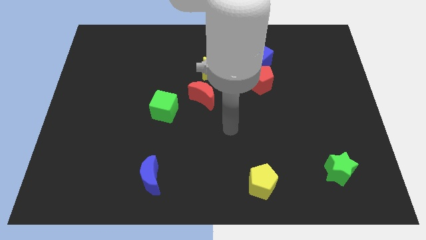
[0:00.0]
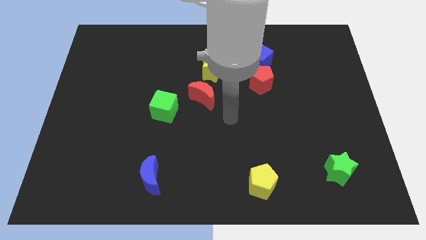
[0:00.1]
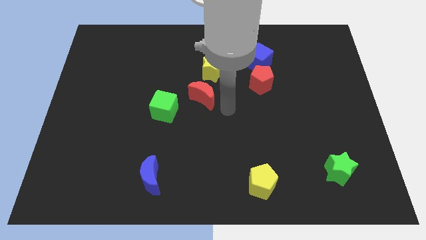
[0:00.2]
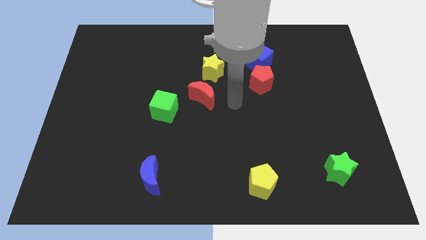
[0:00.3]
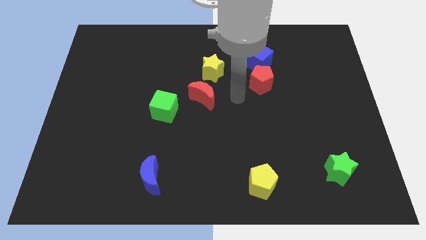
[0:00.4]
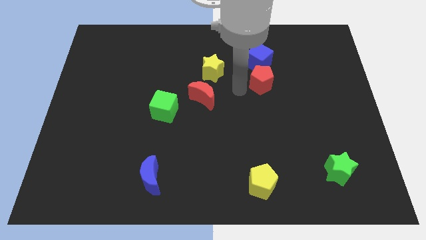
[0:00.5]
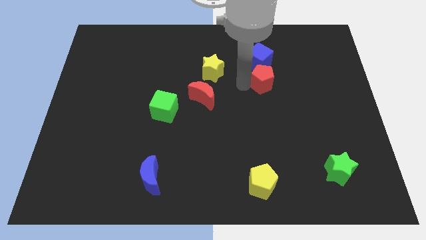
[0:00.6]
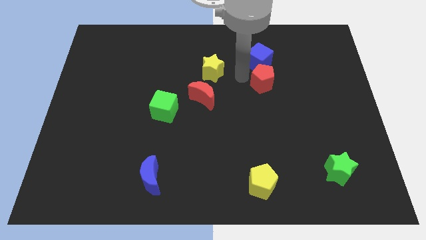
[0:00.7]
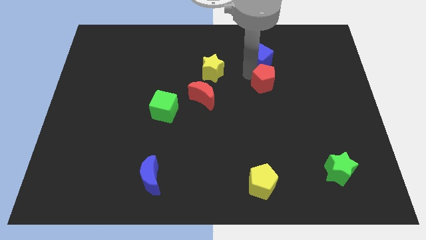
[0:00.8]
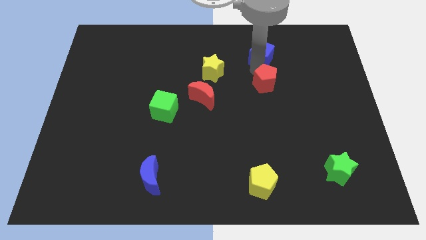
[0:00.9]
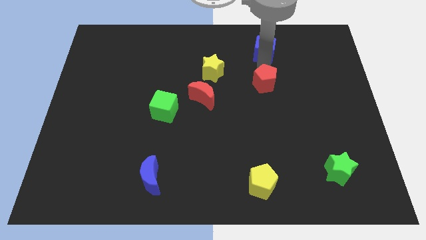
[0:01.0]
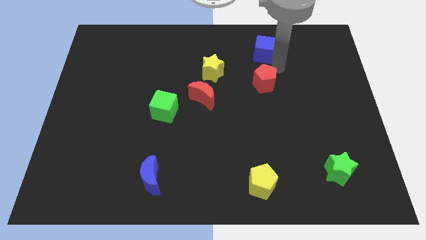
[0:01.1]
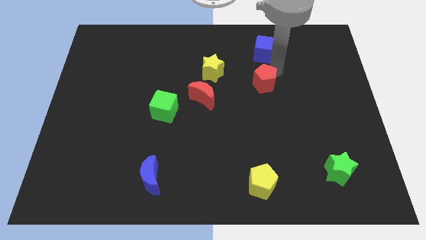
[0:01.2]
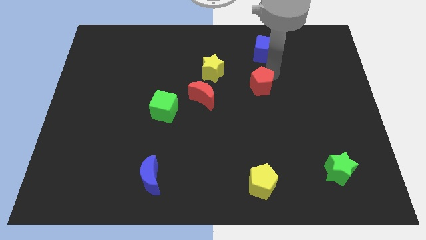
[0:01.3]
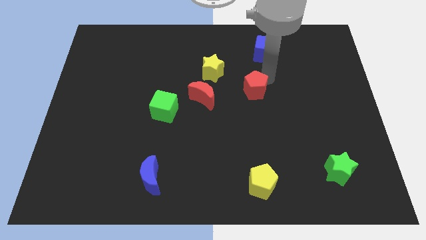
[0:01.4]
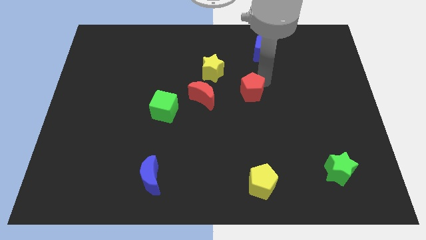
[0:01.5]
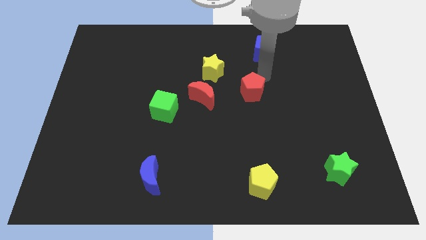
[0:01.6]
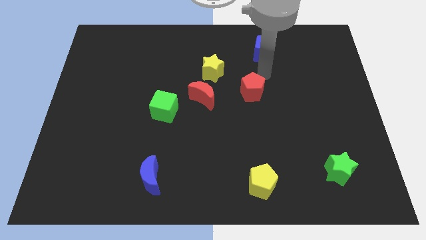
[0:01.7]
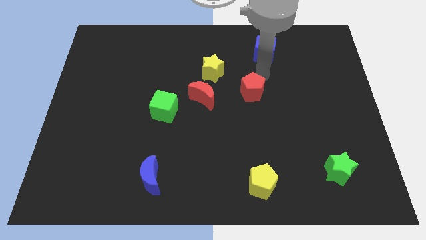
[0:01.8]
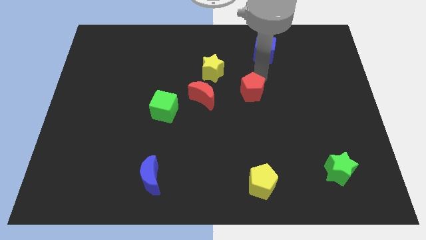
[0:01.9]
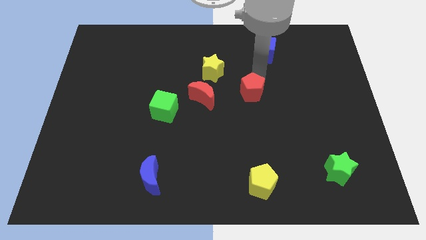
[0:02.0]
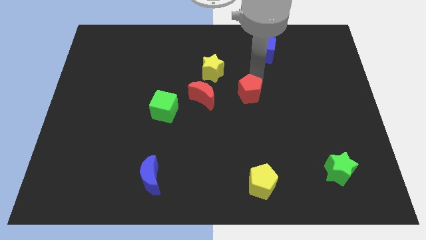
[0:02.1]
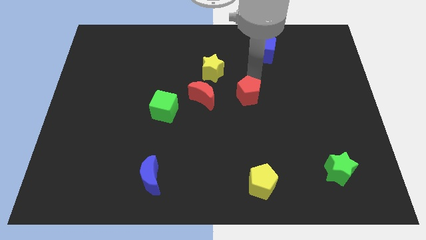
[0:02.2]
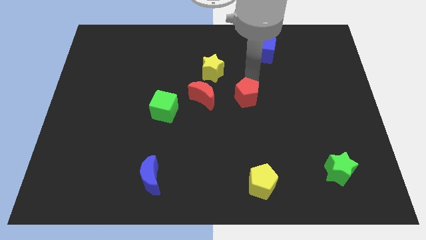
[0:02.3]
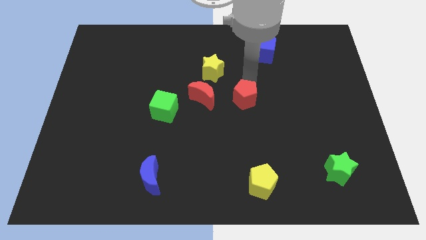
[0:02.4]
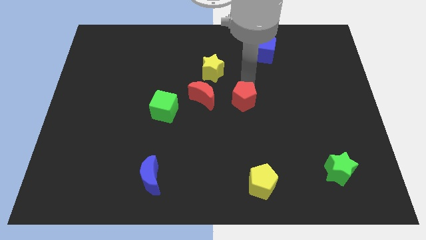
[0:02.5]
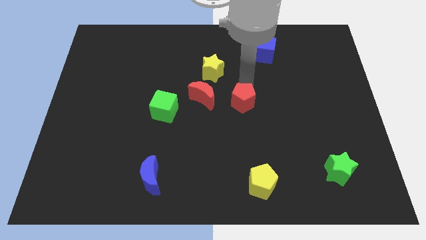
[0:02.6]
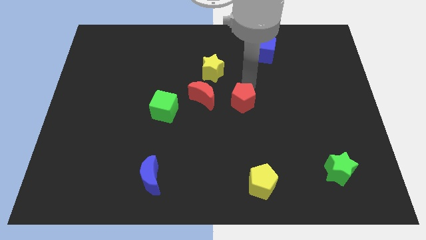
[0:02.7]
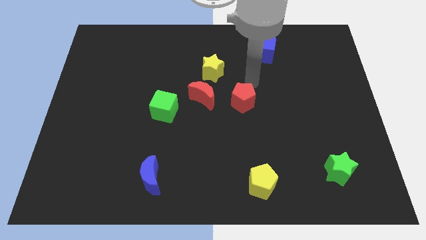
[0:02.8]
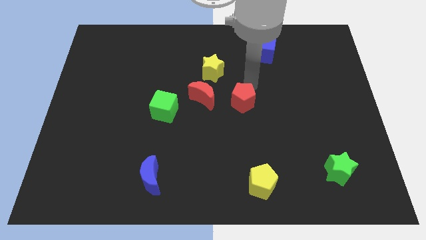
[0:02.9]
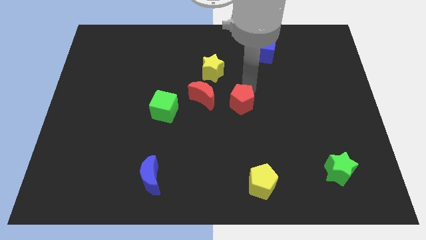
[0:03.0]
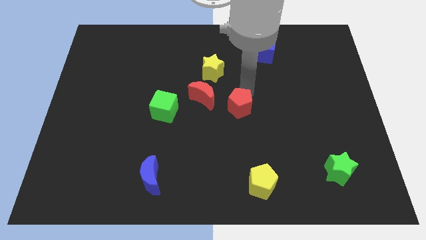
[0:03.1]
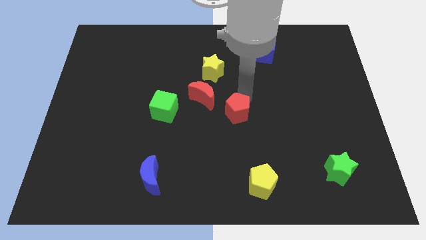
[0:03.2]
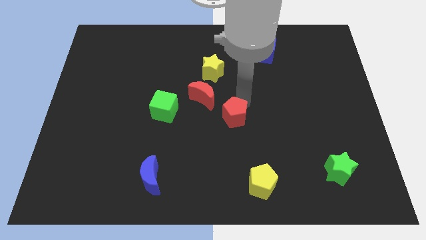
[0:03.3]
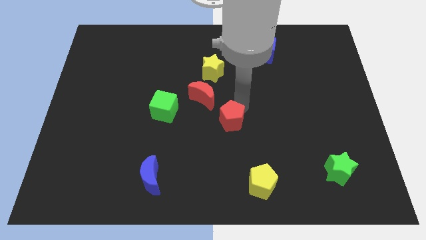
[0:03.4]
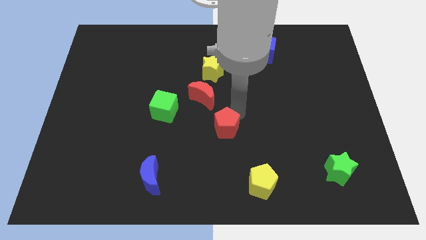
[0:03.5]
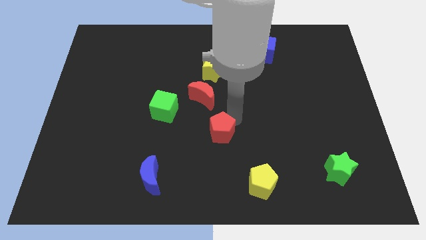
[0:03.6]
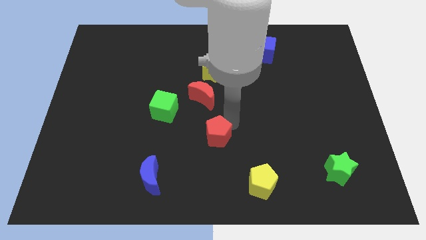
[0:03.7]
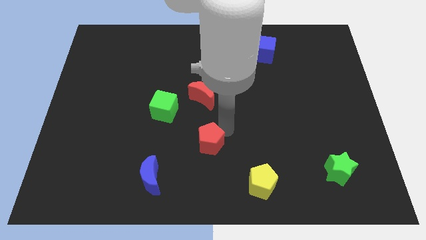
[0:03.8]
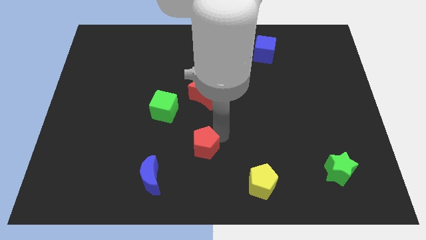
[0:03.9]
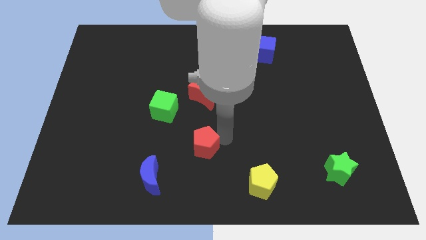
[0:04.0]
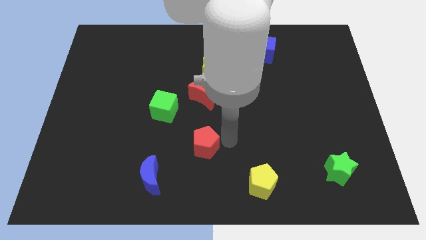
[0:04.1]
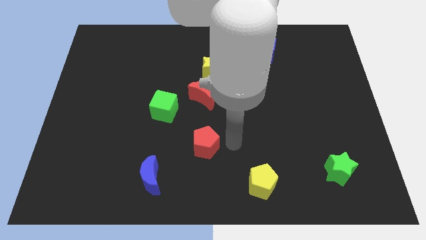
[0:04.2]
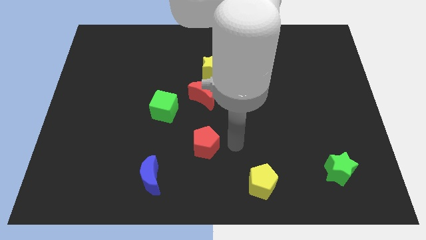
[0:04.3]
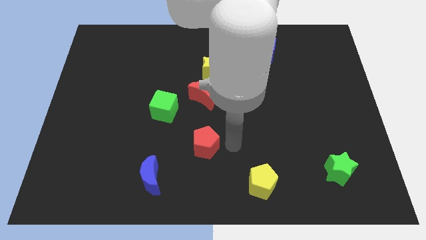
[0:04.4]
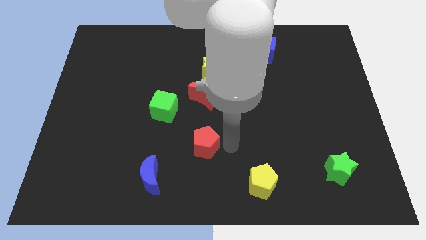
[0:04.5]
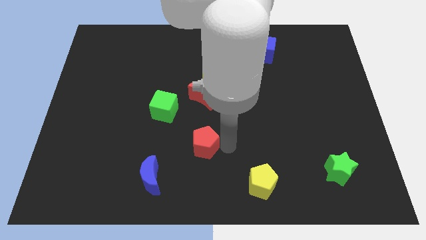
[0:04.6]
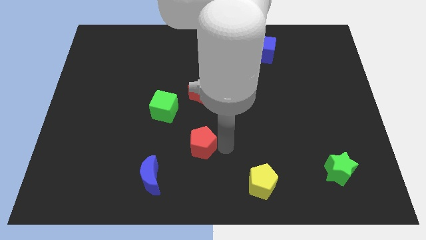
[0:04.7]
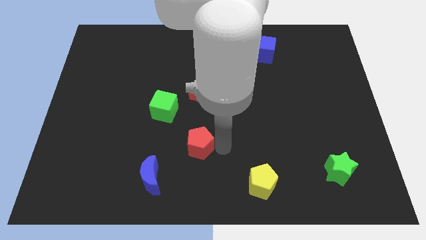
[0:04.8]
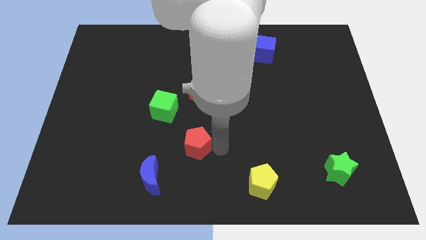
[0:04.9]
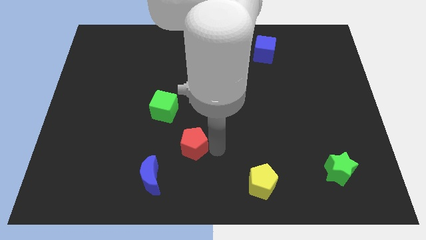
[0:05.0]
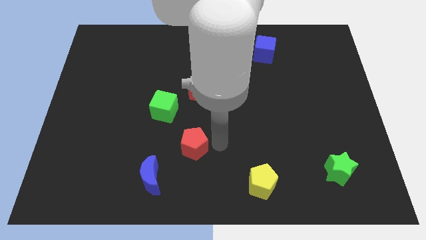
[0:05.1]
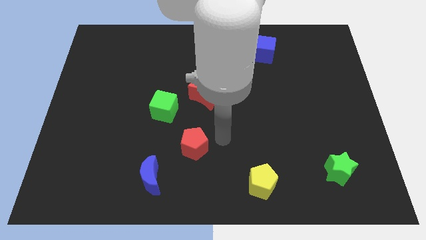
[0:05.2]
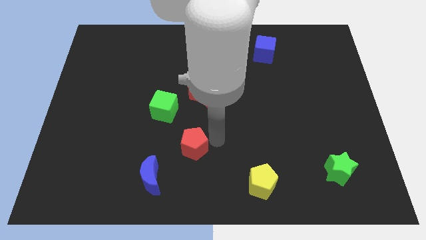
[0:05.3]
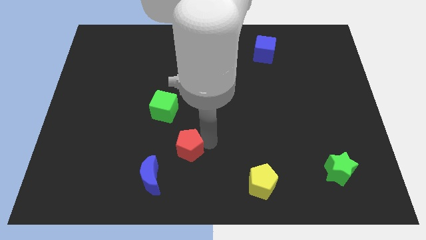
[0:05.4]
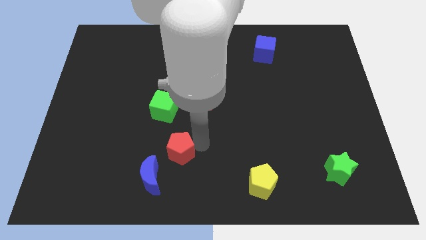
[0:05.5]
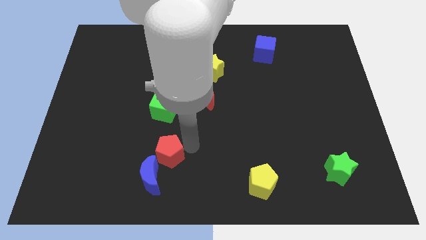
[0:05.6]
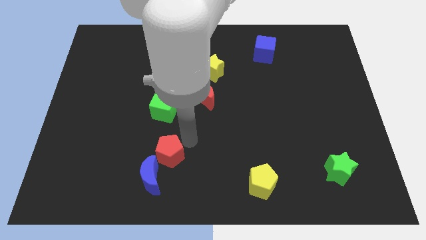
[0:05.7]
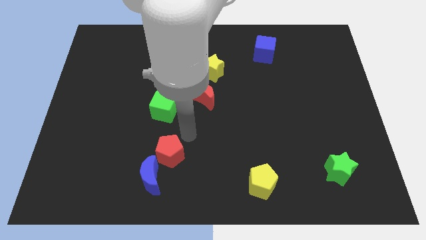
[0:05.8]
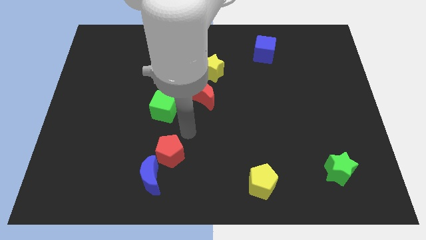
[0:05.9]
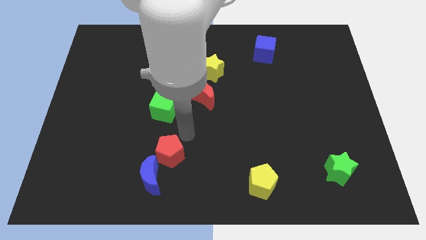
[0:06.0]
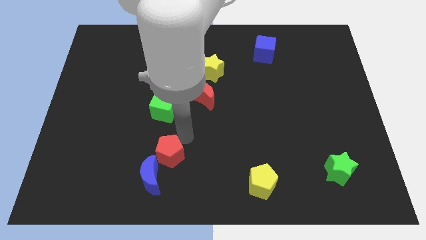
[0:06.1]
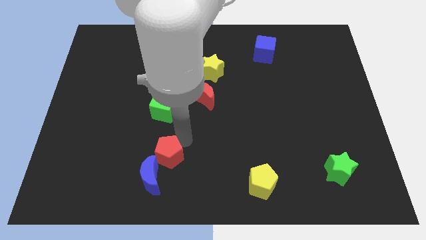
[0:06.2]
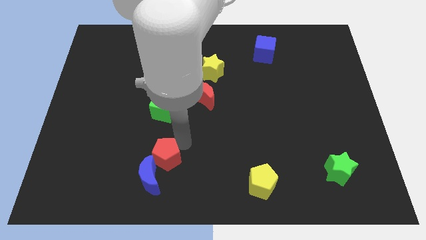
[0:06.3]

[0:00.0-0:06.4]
push the red pentagon close to the blue moon
